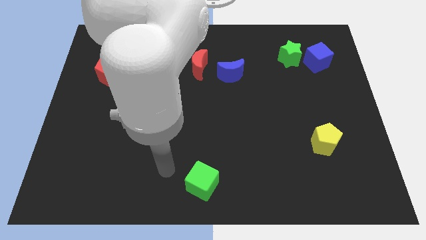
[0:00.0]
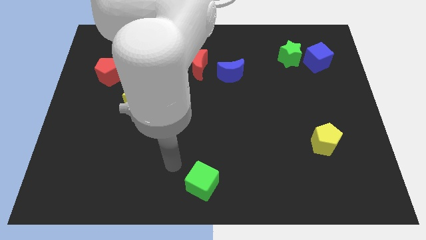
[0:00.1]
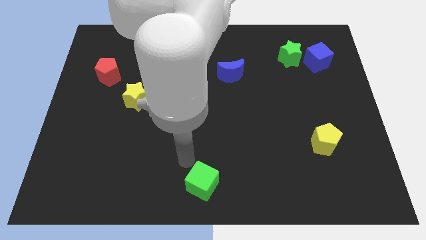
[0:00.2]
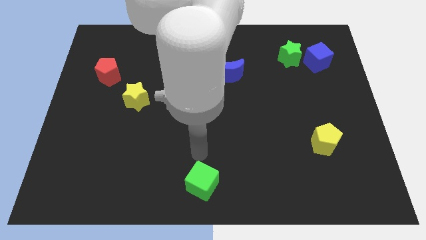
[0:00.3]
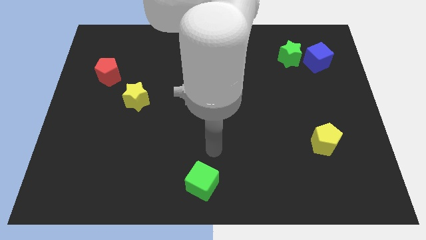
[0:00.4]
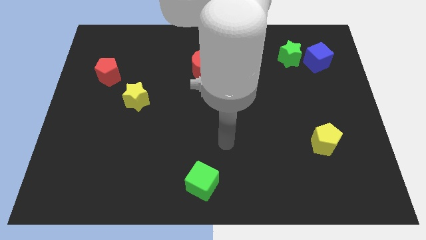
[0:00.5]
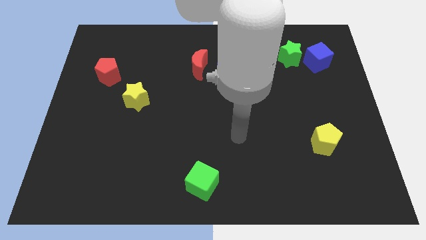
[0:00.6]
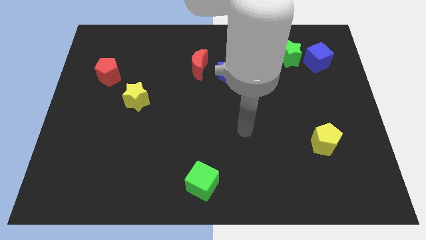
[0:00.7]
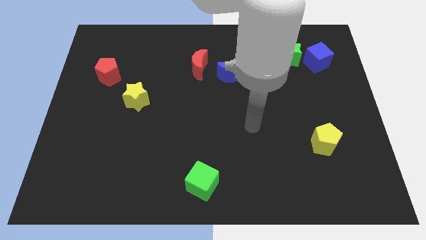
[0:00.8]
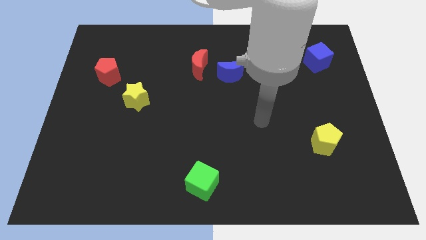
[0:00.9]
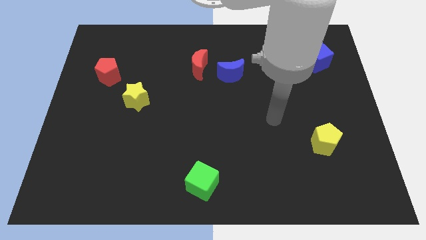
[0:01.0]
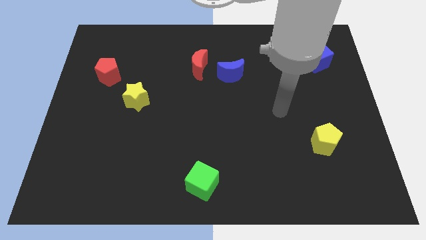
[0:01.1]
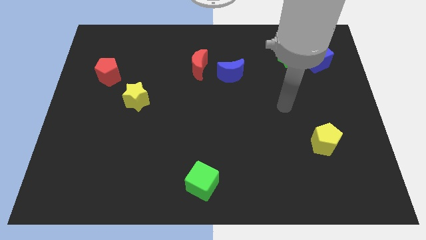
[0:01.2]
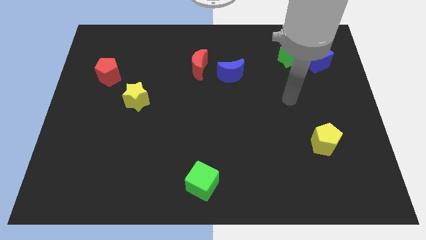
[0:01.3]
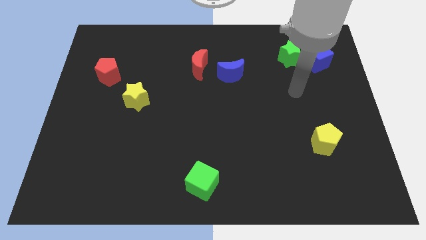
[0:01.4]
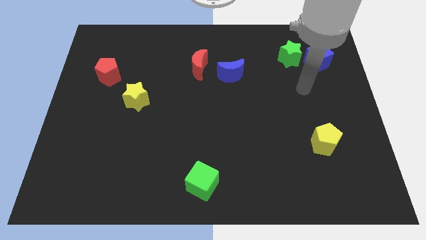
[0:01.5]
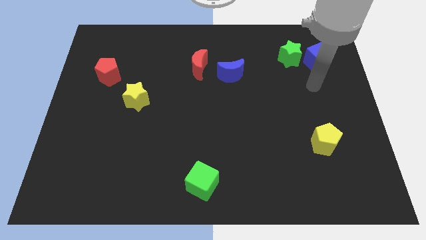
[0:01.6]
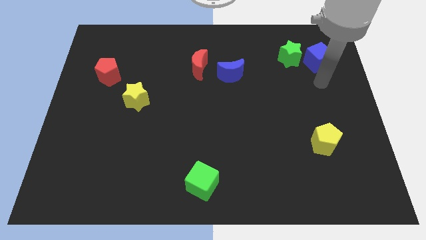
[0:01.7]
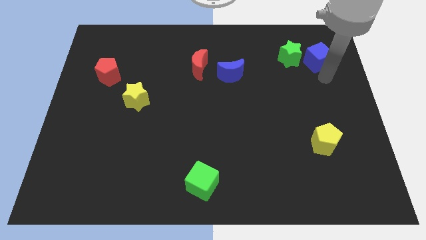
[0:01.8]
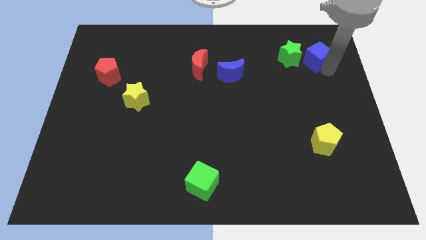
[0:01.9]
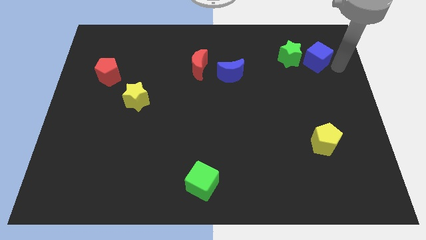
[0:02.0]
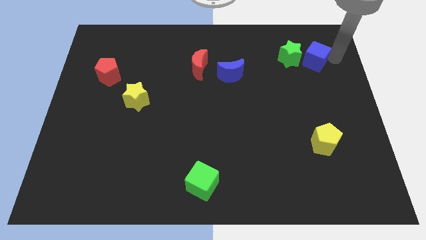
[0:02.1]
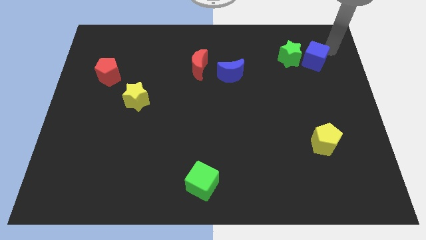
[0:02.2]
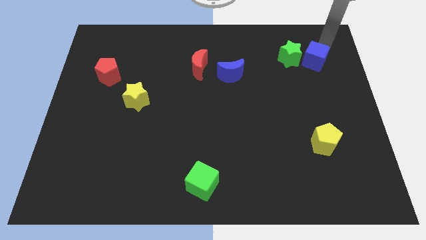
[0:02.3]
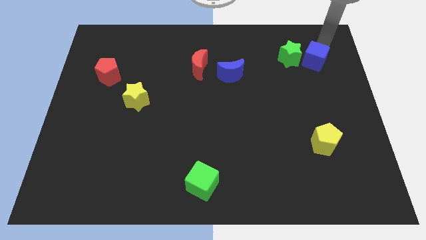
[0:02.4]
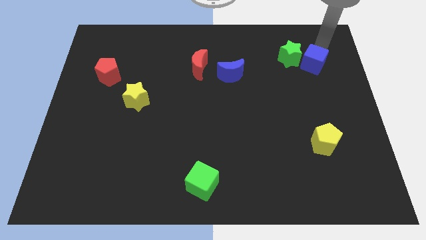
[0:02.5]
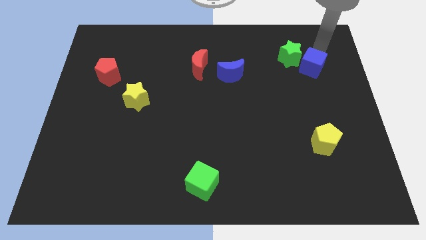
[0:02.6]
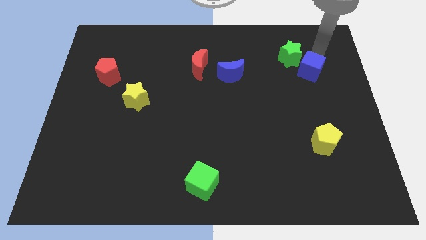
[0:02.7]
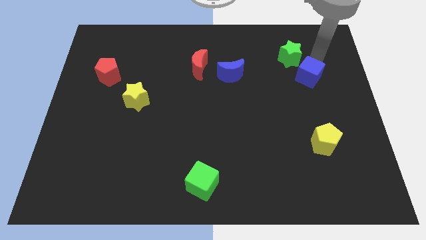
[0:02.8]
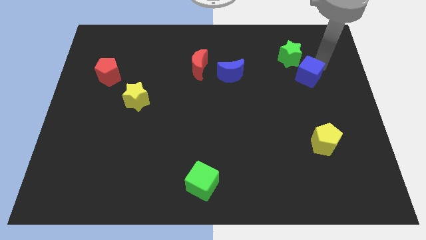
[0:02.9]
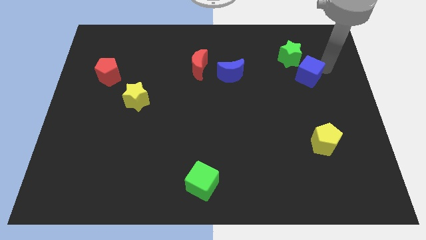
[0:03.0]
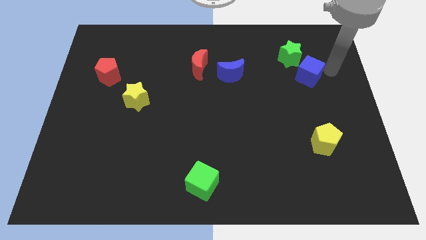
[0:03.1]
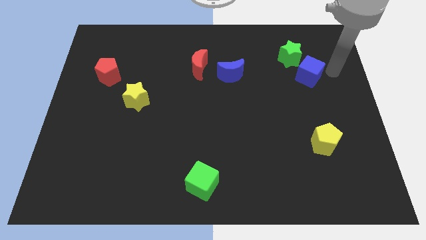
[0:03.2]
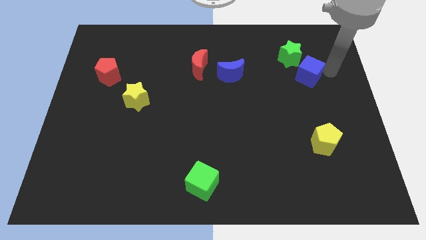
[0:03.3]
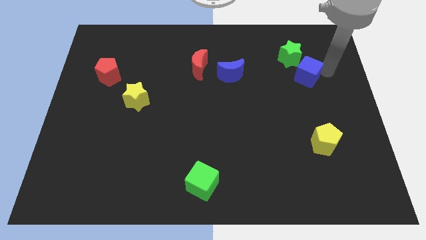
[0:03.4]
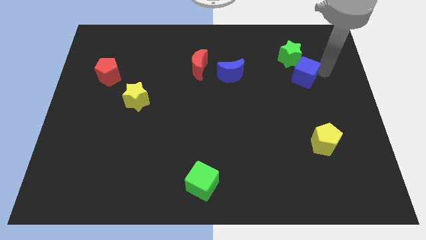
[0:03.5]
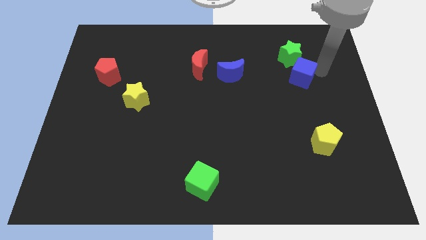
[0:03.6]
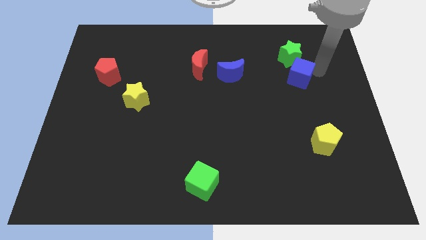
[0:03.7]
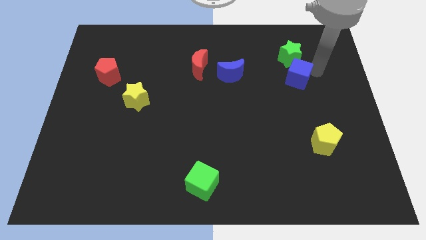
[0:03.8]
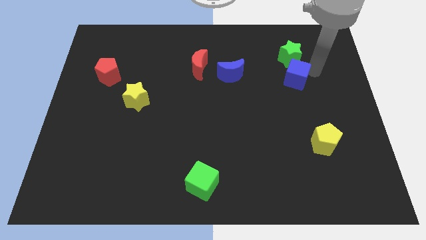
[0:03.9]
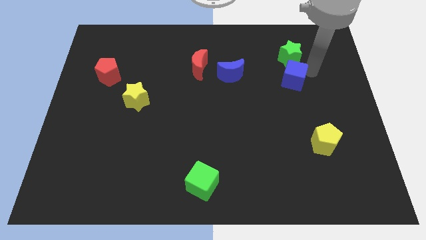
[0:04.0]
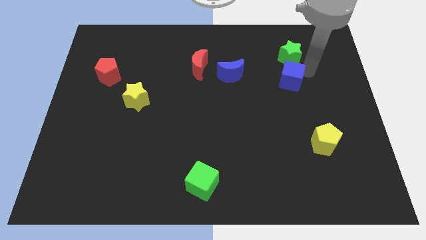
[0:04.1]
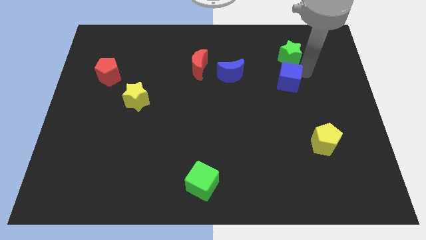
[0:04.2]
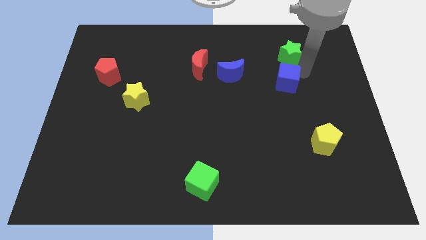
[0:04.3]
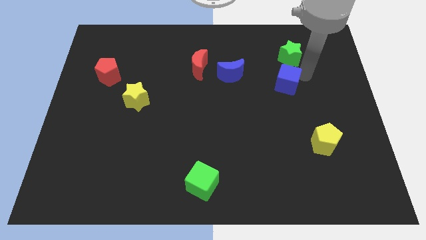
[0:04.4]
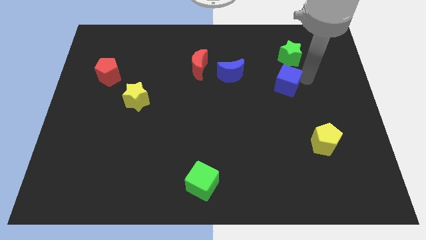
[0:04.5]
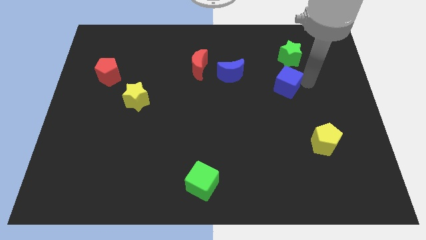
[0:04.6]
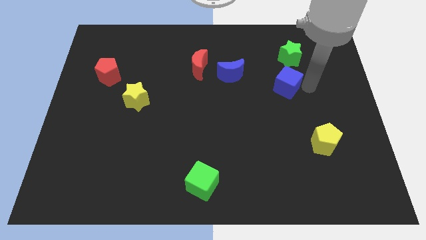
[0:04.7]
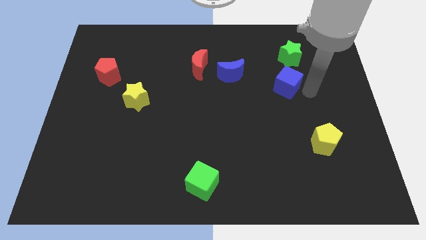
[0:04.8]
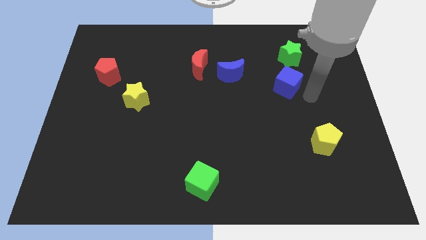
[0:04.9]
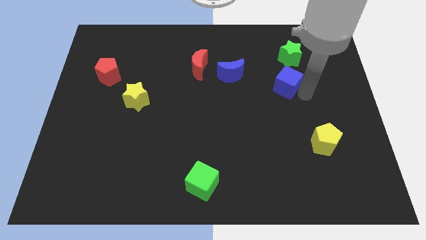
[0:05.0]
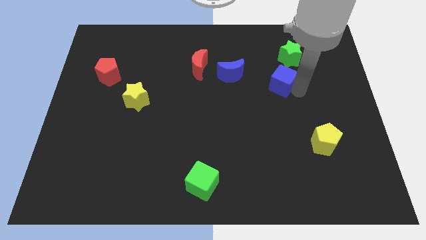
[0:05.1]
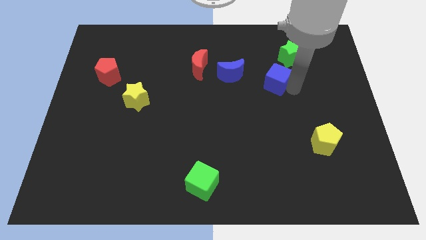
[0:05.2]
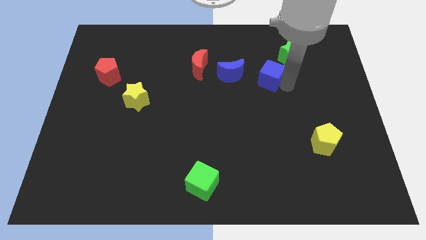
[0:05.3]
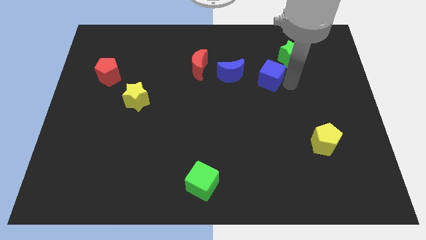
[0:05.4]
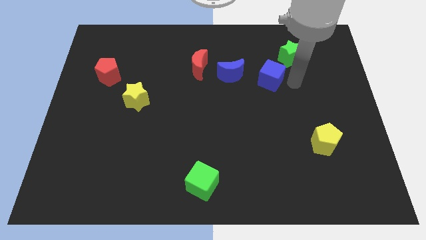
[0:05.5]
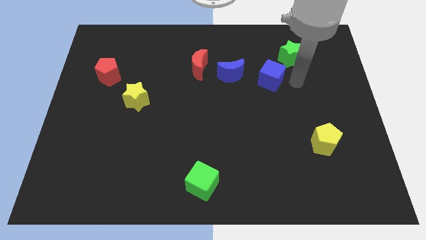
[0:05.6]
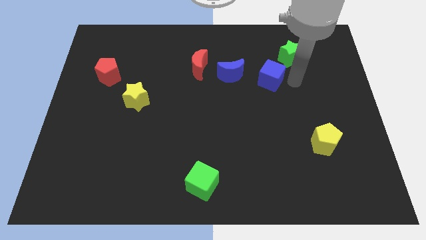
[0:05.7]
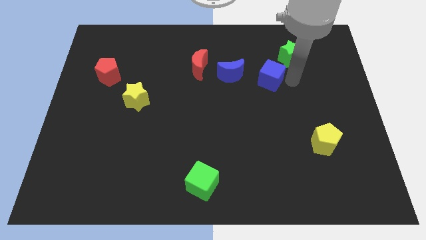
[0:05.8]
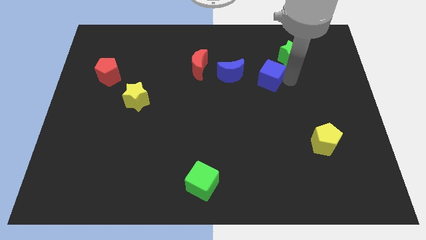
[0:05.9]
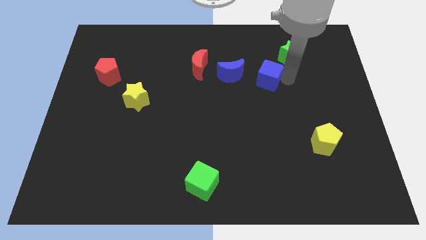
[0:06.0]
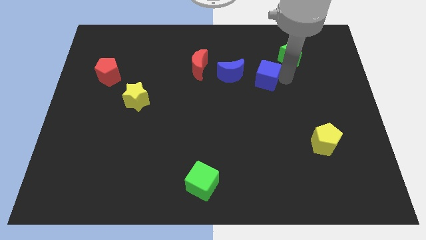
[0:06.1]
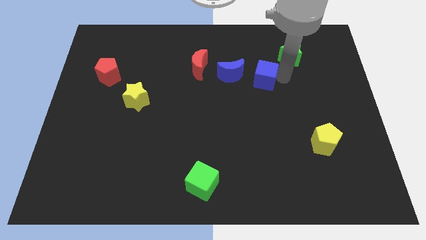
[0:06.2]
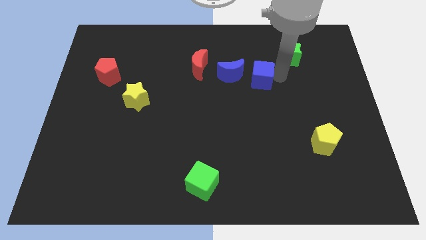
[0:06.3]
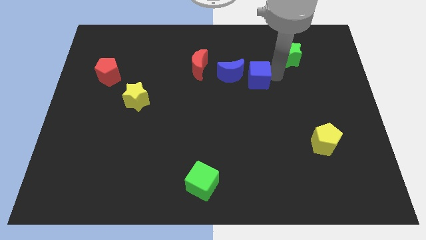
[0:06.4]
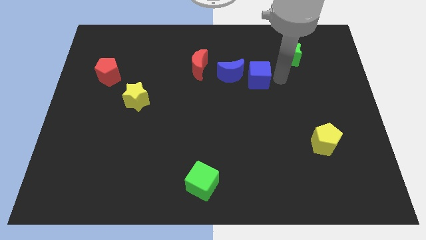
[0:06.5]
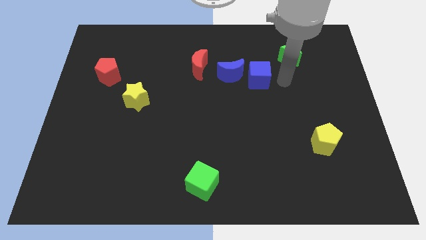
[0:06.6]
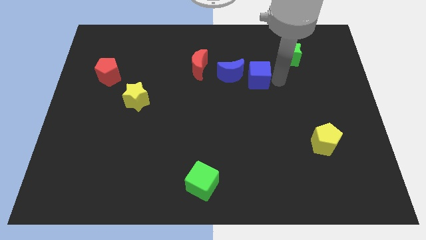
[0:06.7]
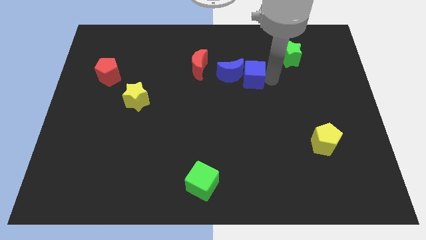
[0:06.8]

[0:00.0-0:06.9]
move the blue cube towards the blue moon
